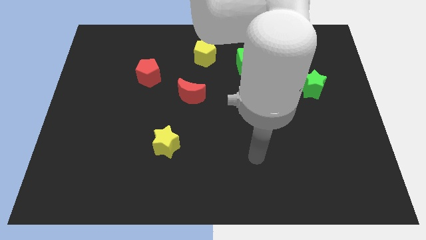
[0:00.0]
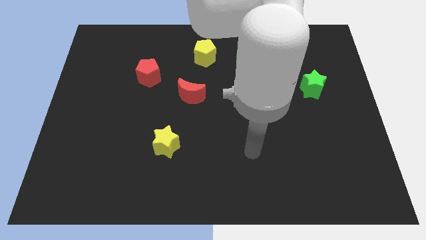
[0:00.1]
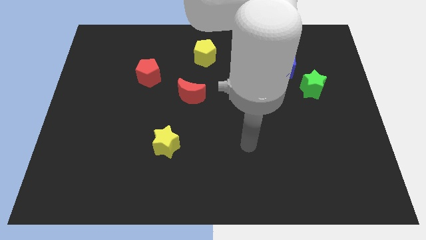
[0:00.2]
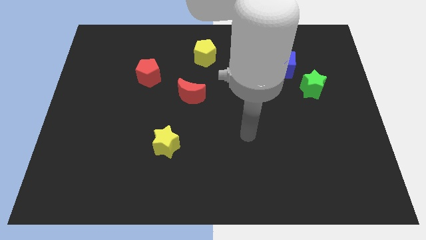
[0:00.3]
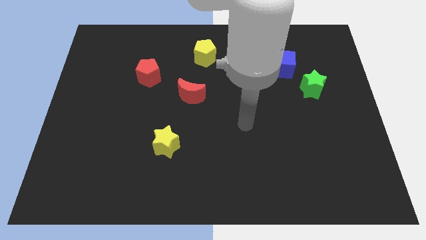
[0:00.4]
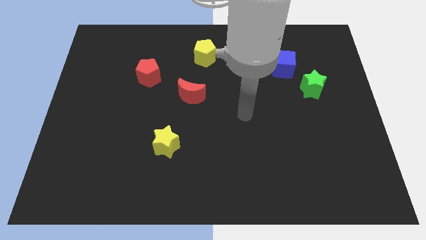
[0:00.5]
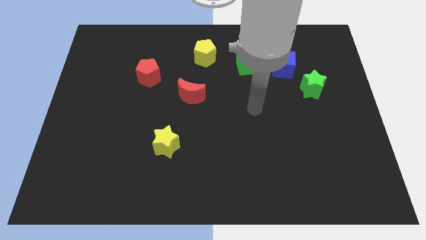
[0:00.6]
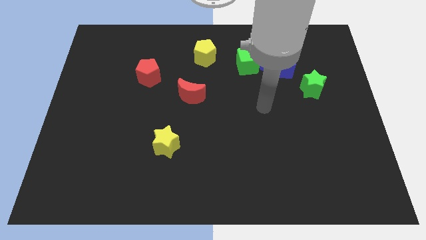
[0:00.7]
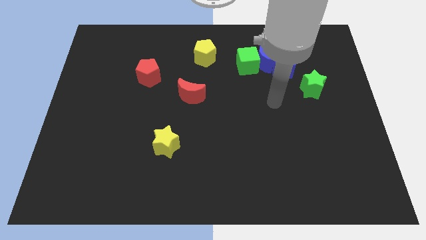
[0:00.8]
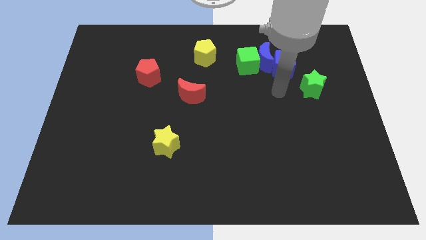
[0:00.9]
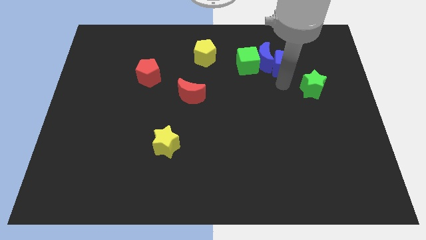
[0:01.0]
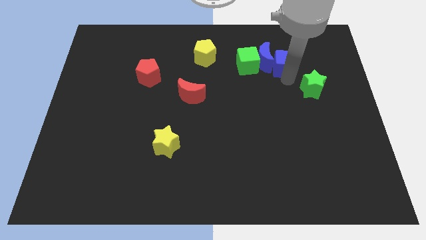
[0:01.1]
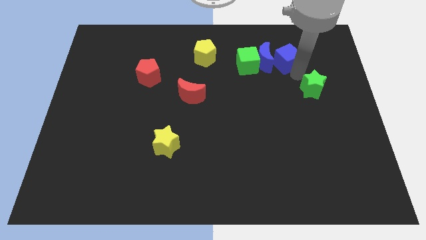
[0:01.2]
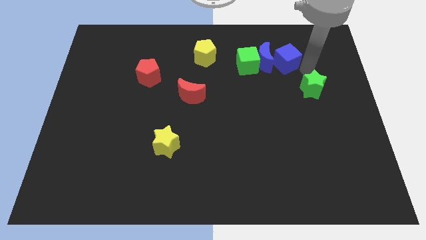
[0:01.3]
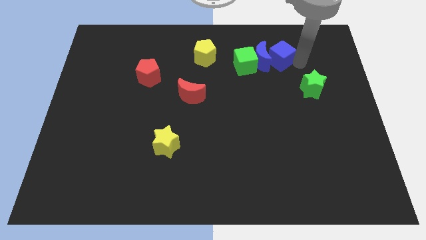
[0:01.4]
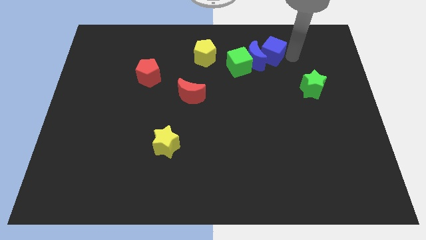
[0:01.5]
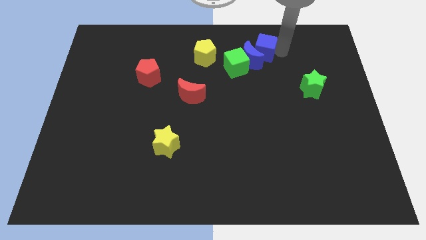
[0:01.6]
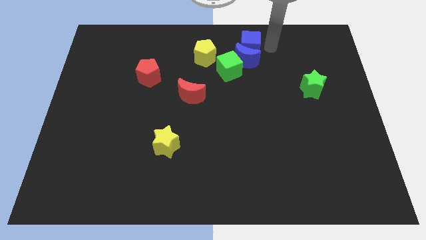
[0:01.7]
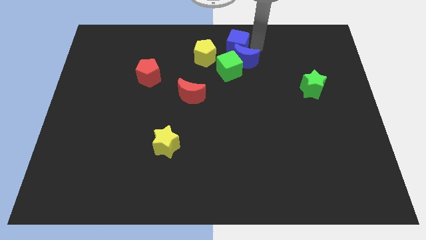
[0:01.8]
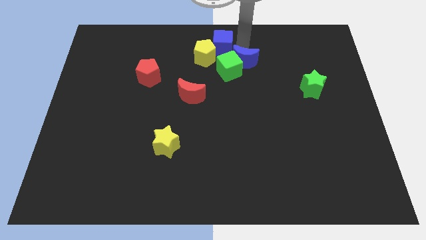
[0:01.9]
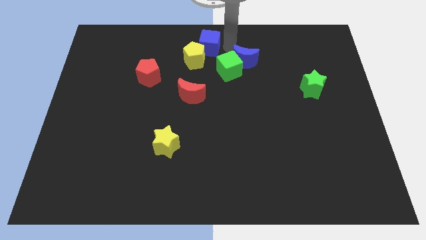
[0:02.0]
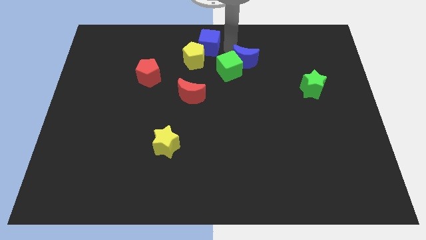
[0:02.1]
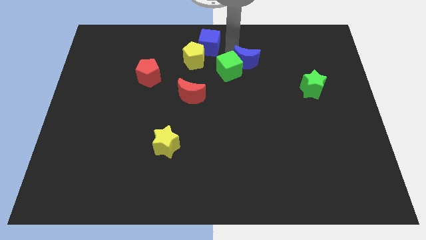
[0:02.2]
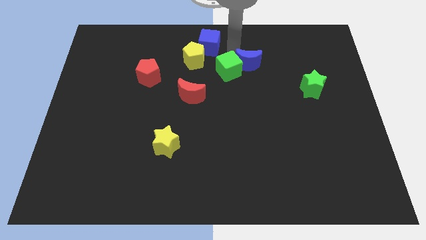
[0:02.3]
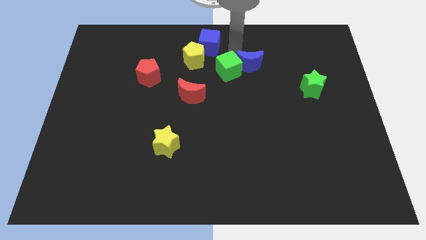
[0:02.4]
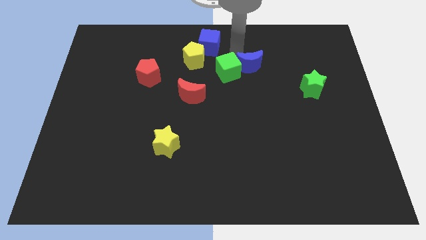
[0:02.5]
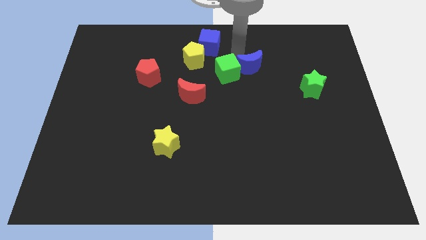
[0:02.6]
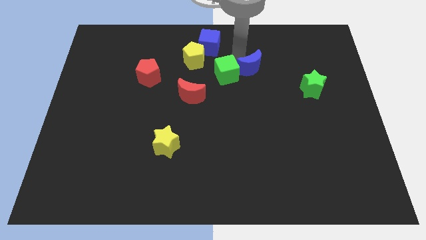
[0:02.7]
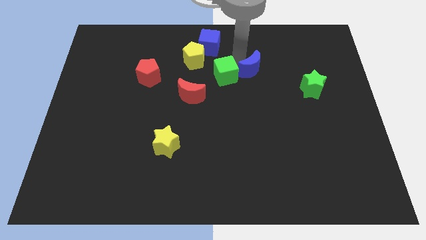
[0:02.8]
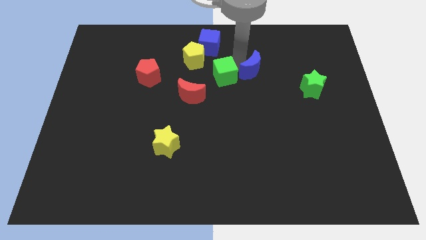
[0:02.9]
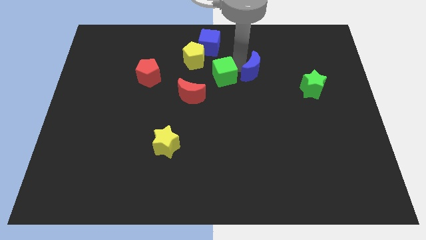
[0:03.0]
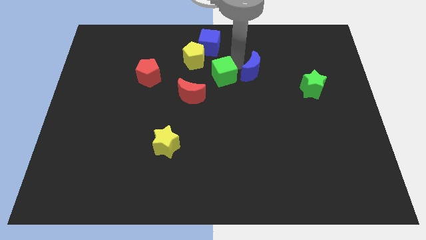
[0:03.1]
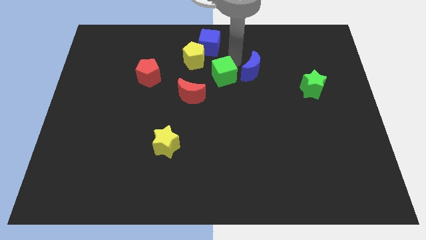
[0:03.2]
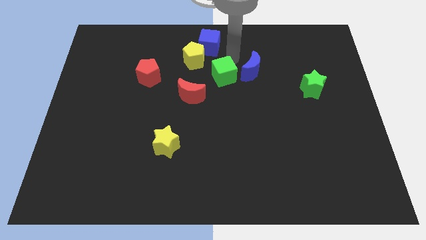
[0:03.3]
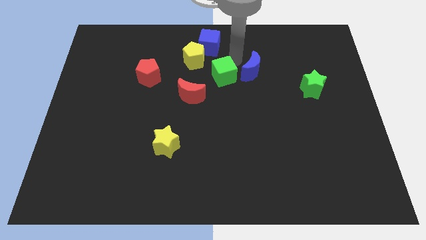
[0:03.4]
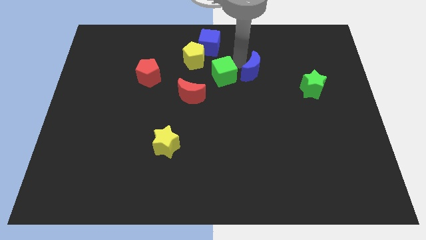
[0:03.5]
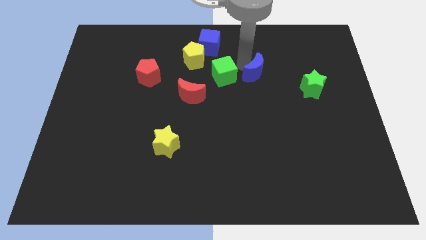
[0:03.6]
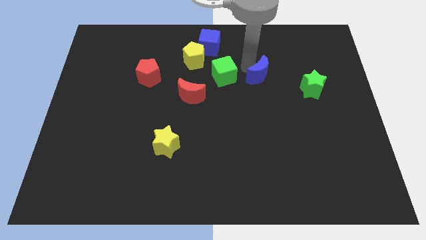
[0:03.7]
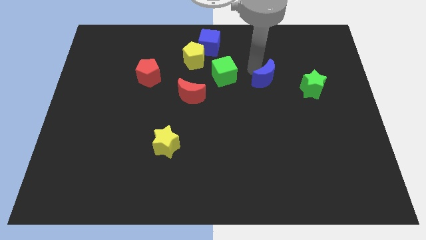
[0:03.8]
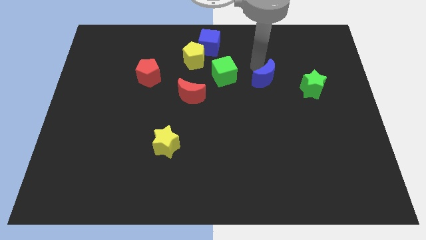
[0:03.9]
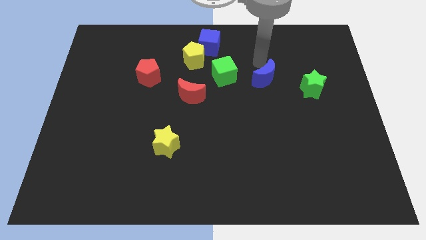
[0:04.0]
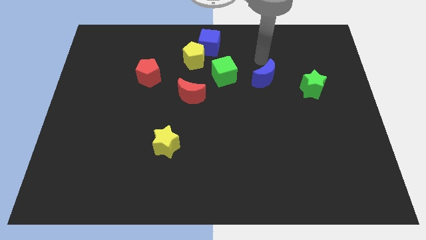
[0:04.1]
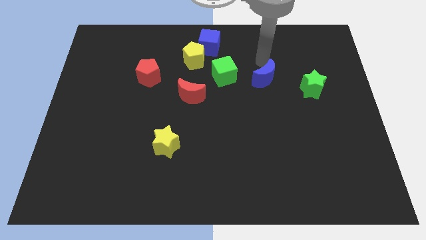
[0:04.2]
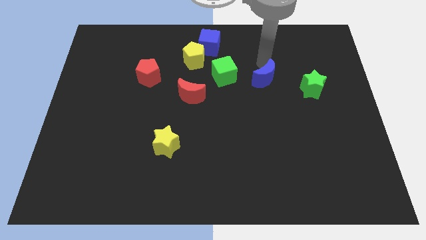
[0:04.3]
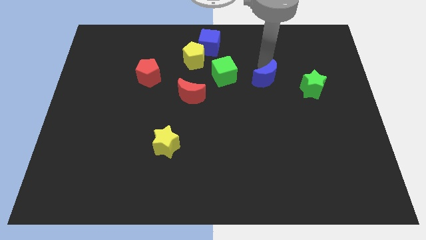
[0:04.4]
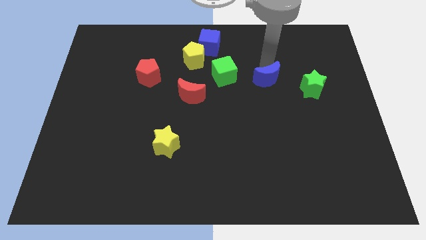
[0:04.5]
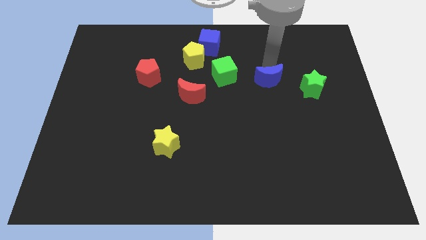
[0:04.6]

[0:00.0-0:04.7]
slide the blue moon a little down

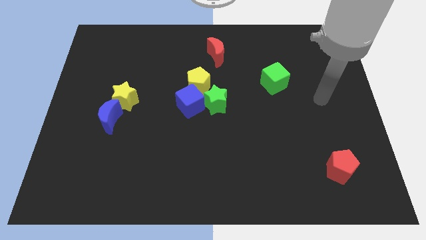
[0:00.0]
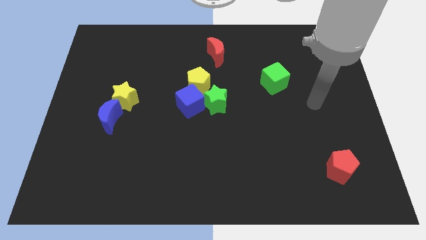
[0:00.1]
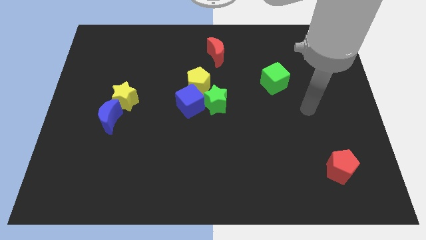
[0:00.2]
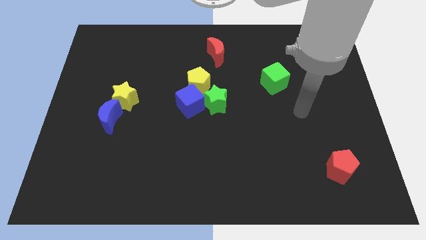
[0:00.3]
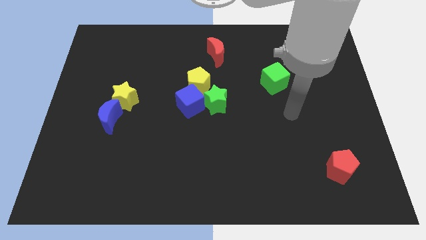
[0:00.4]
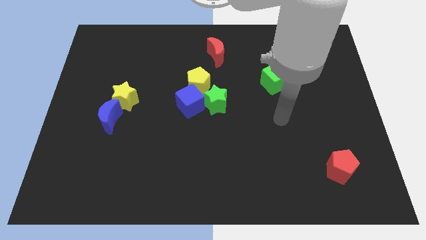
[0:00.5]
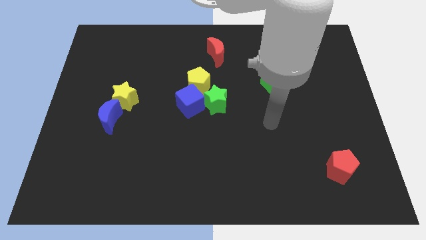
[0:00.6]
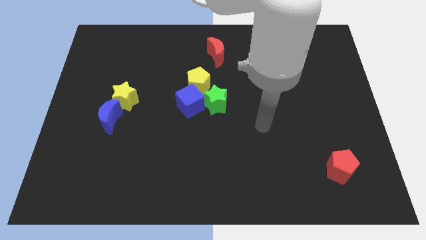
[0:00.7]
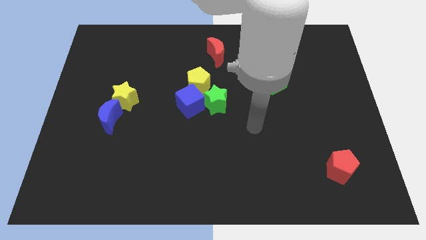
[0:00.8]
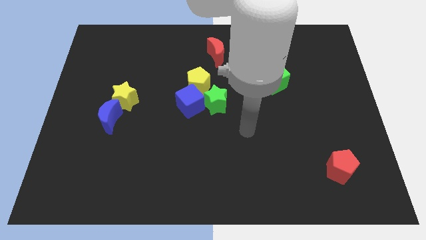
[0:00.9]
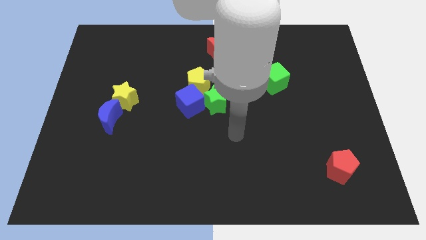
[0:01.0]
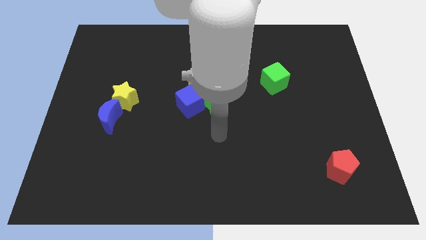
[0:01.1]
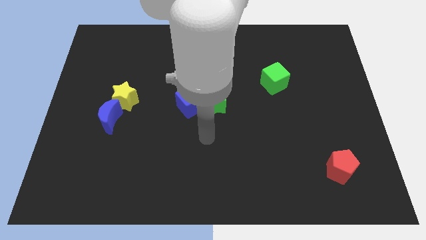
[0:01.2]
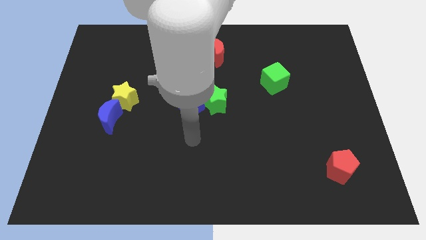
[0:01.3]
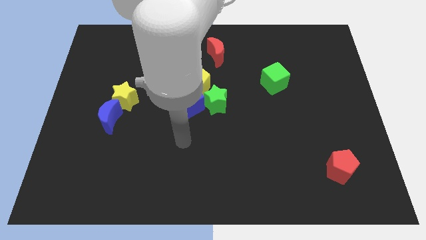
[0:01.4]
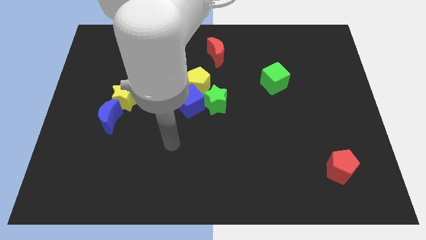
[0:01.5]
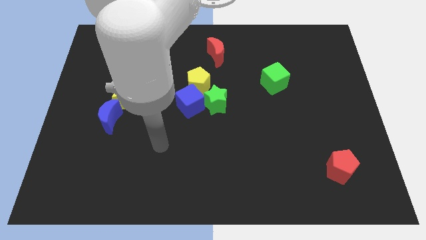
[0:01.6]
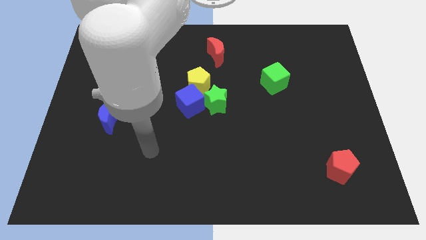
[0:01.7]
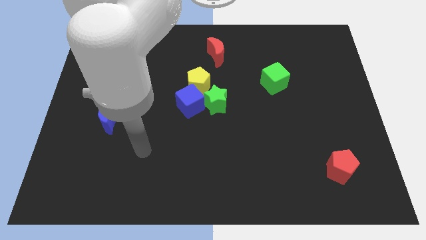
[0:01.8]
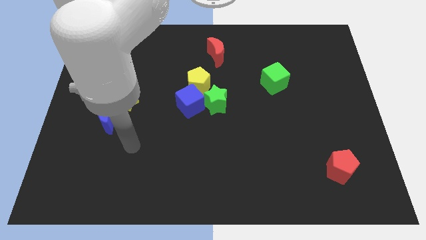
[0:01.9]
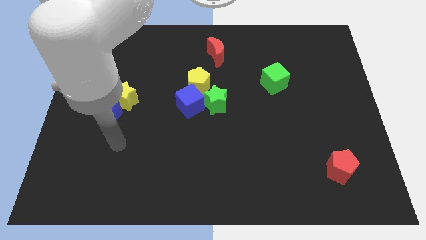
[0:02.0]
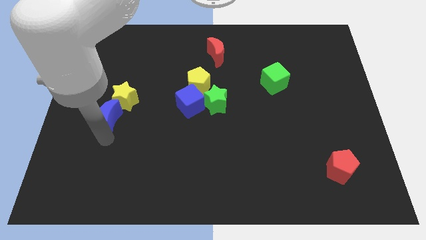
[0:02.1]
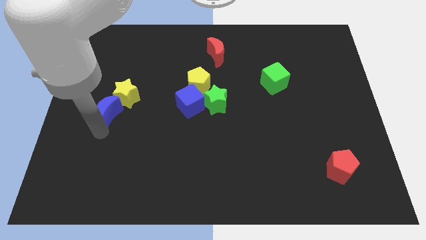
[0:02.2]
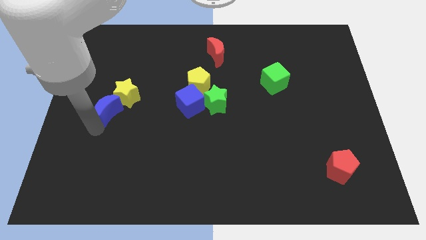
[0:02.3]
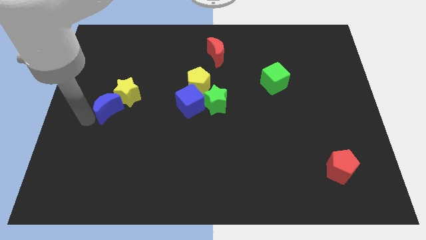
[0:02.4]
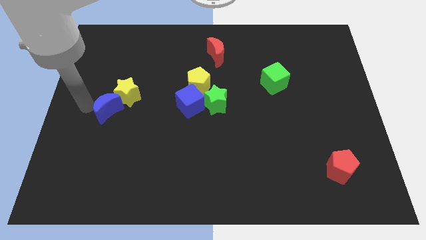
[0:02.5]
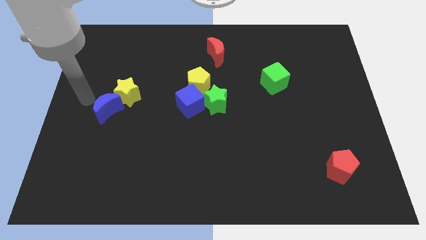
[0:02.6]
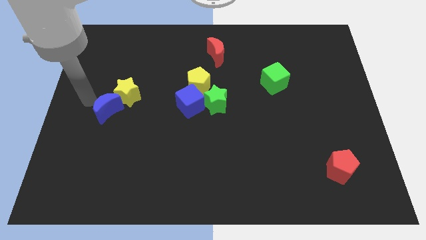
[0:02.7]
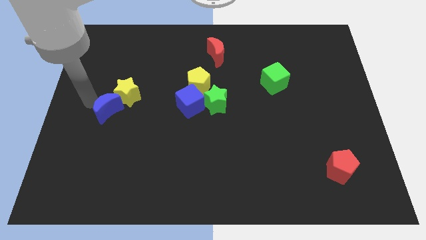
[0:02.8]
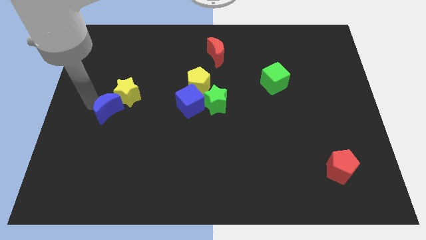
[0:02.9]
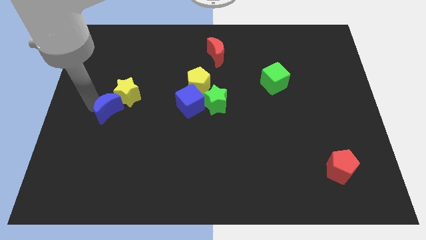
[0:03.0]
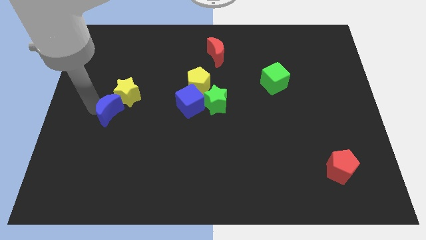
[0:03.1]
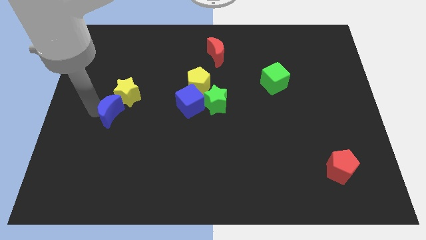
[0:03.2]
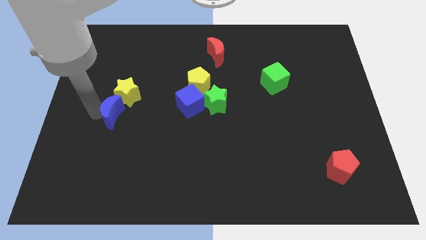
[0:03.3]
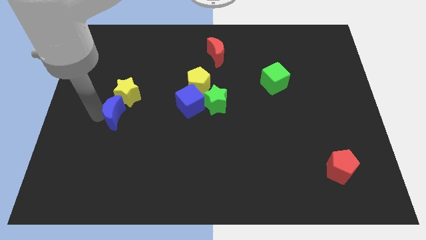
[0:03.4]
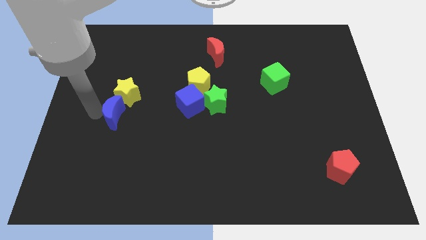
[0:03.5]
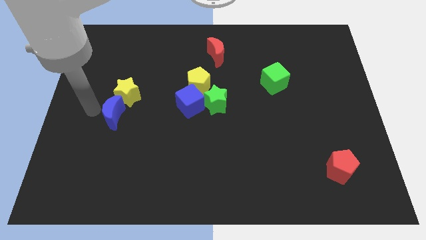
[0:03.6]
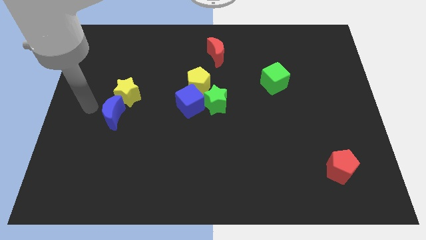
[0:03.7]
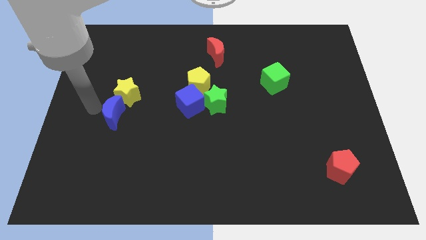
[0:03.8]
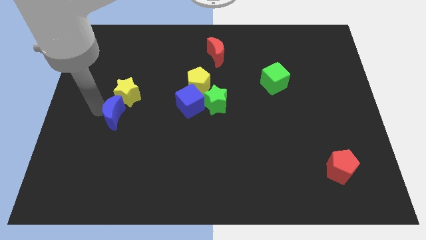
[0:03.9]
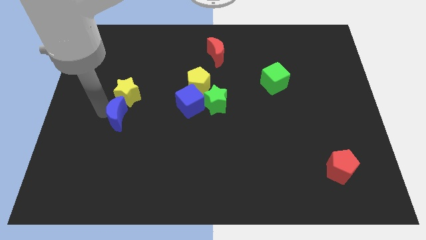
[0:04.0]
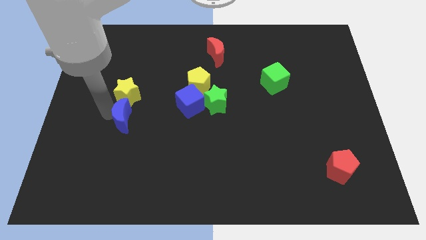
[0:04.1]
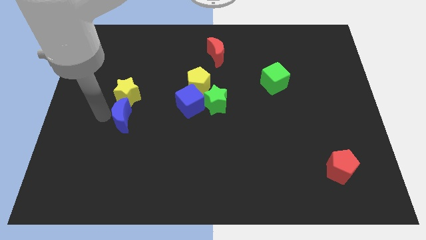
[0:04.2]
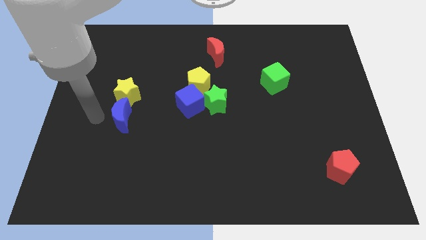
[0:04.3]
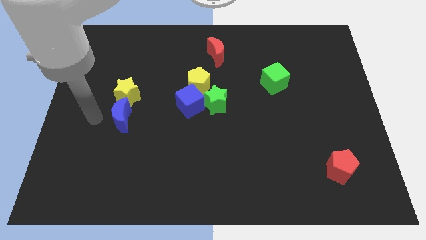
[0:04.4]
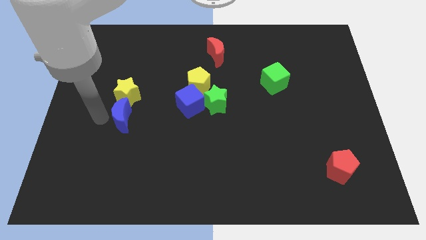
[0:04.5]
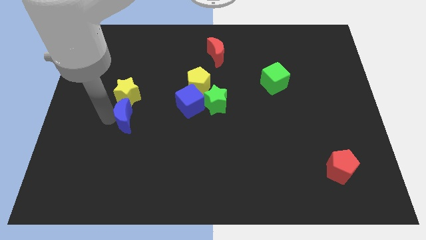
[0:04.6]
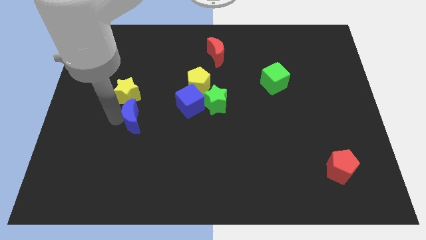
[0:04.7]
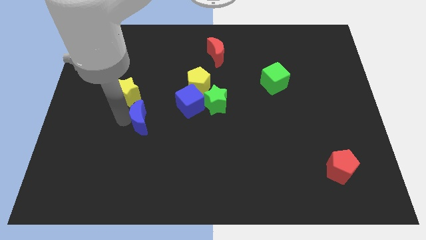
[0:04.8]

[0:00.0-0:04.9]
move the blue moon to the right a bit
